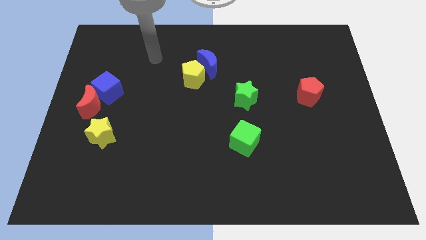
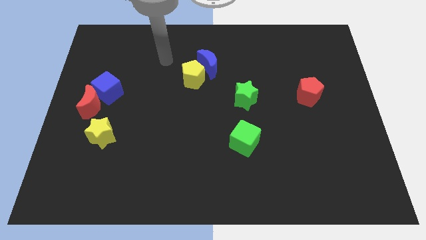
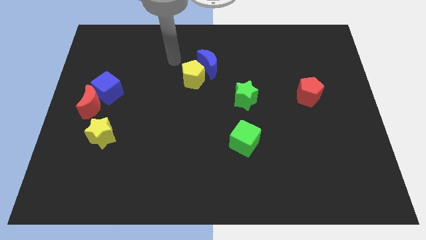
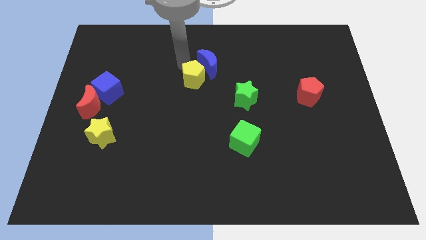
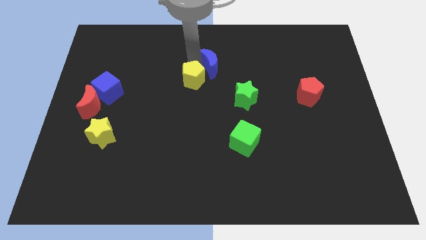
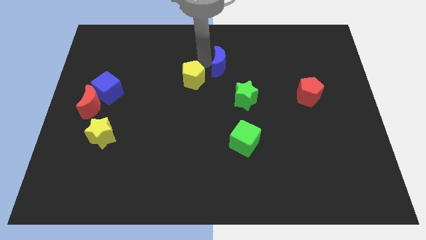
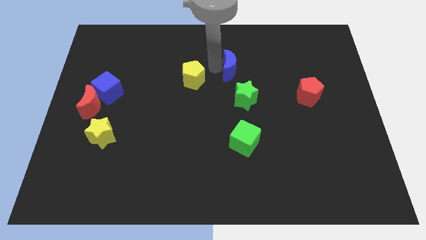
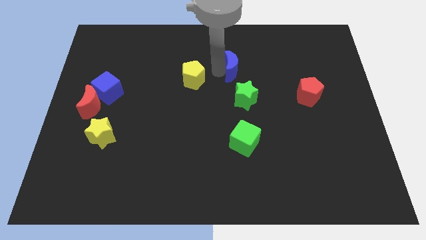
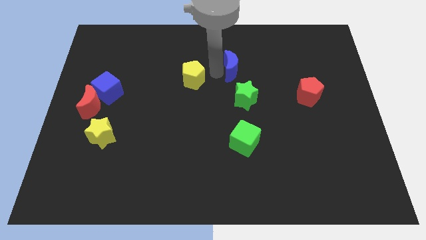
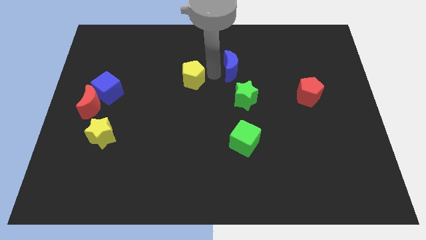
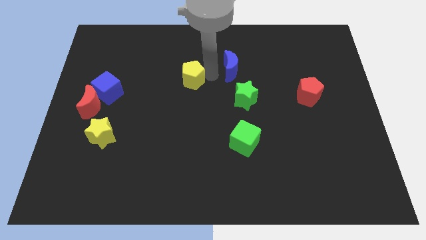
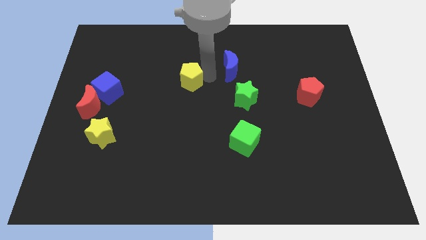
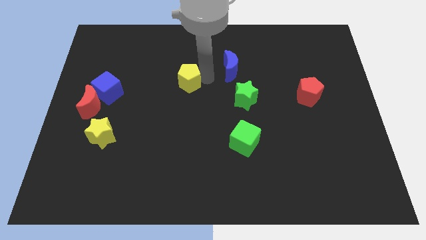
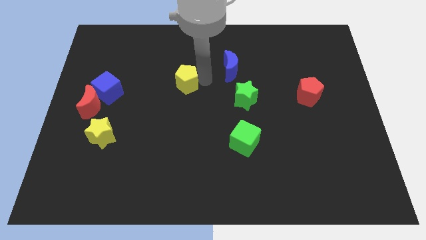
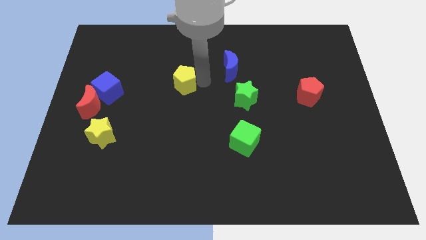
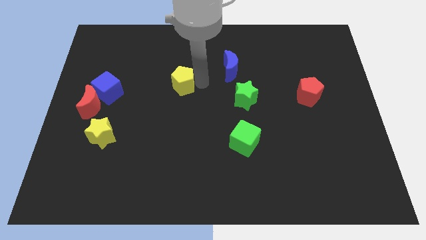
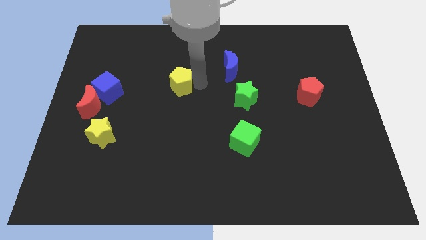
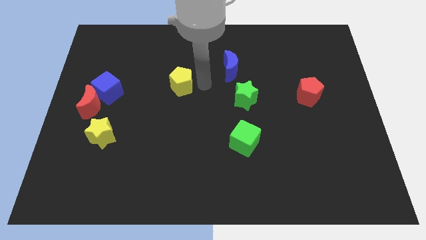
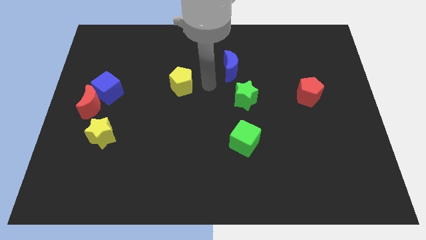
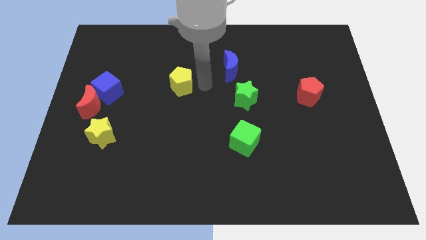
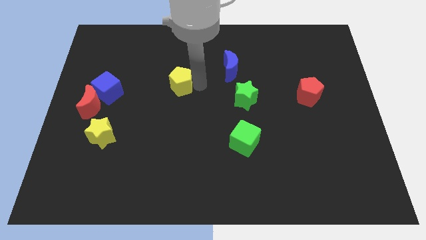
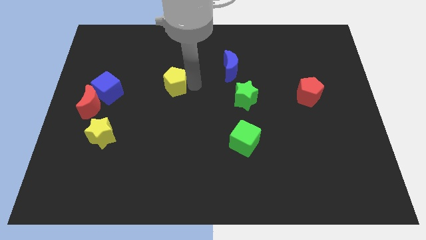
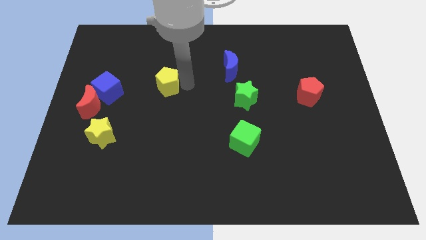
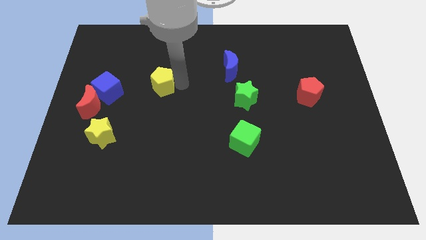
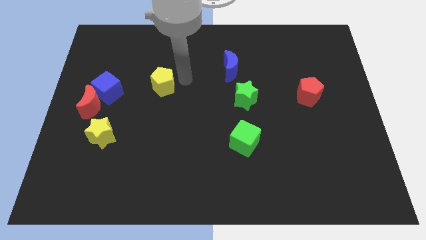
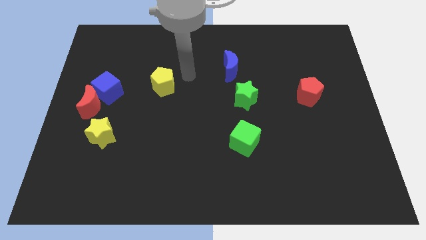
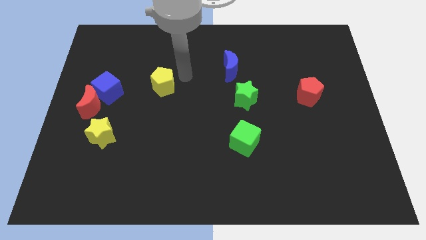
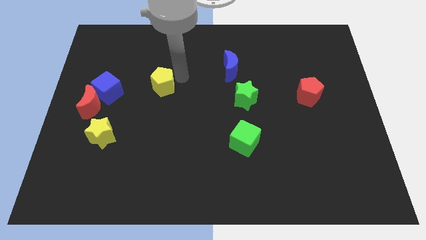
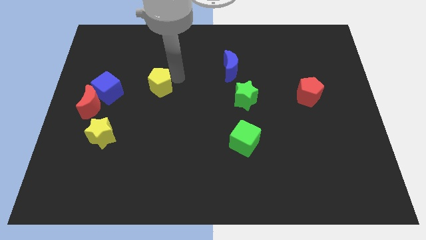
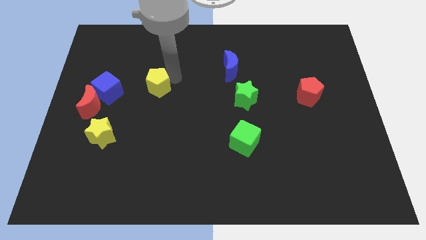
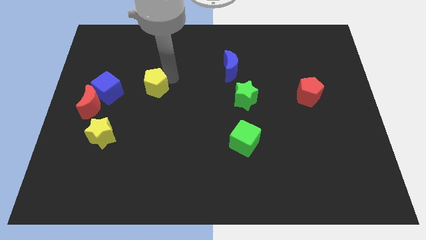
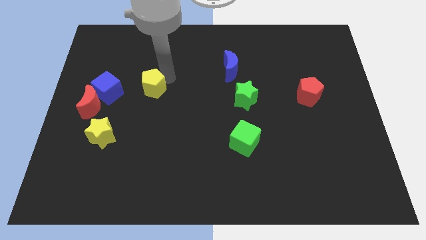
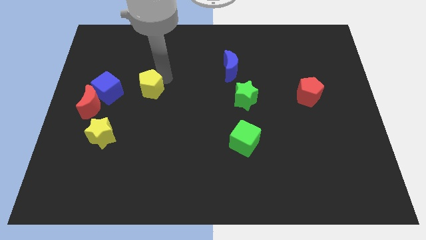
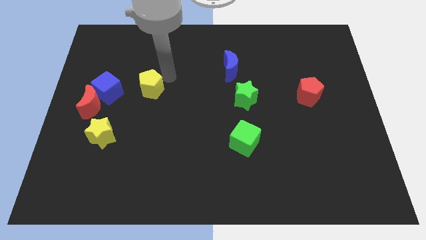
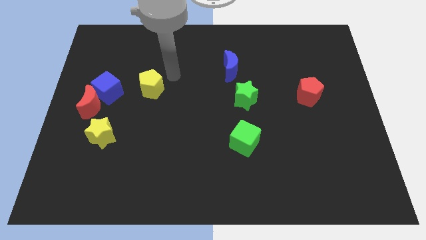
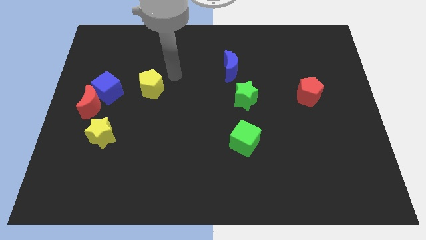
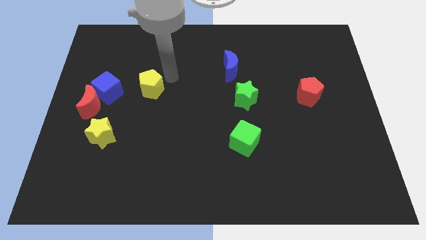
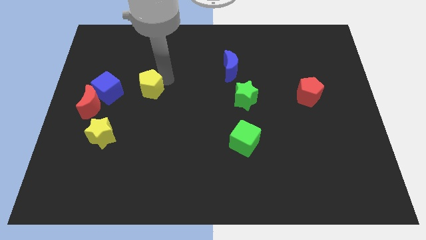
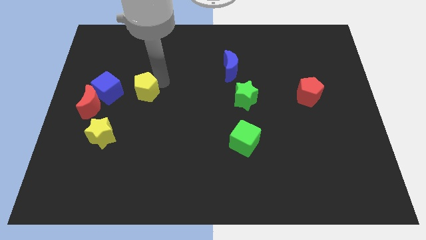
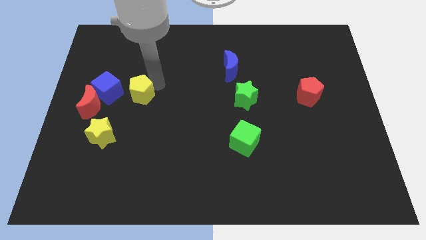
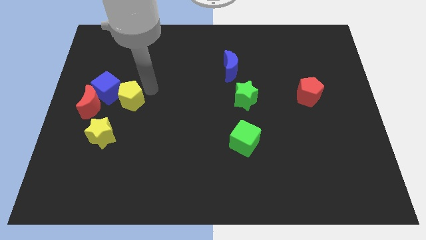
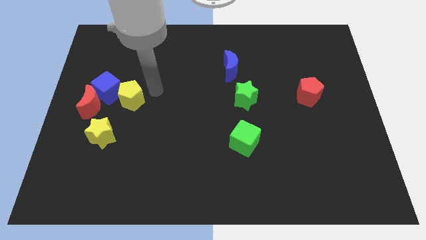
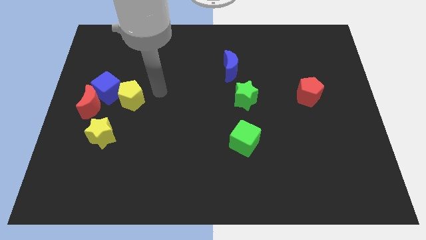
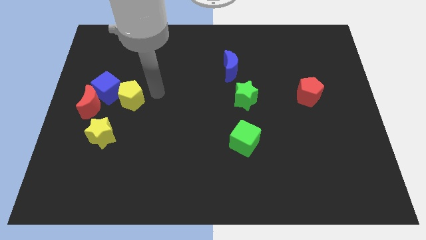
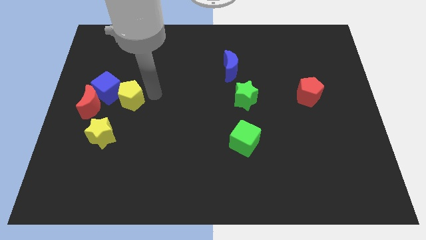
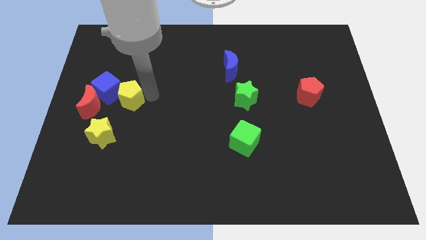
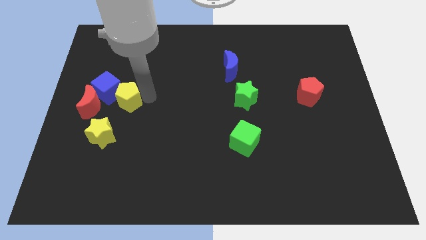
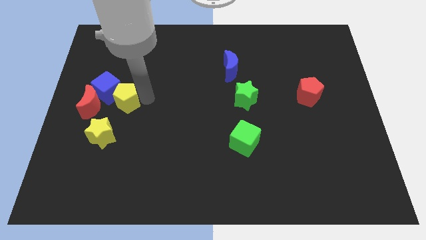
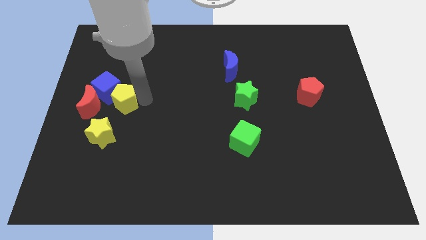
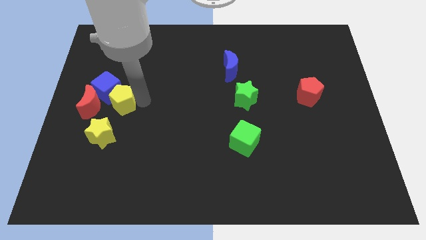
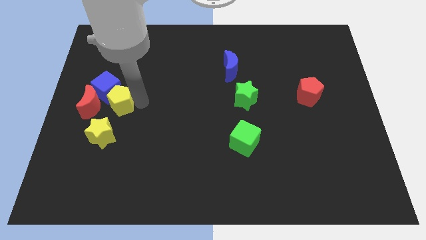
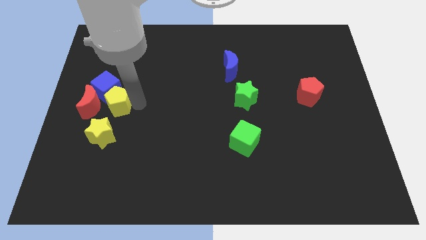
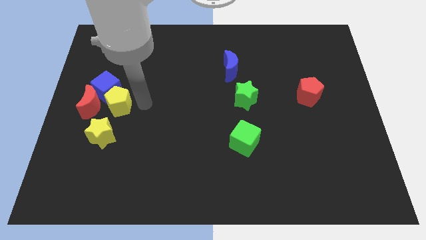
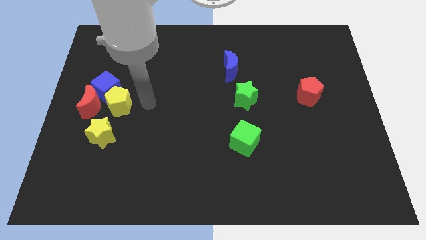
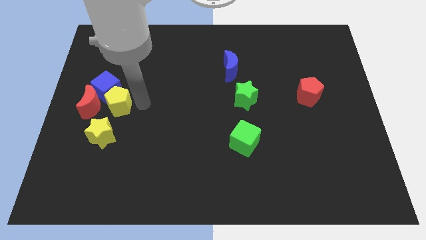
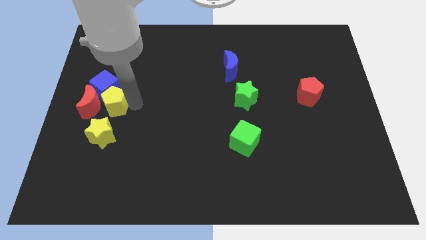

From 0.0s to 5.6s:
slide the yellow pentagon next to the red moon

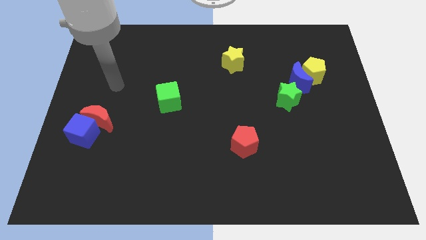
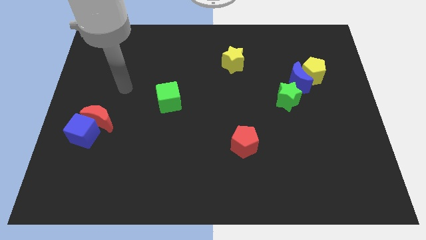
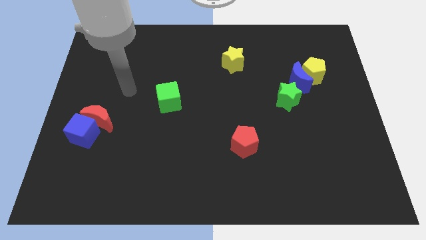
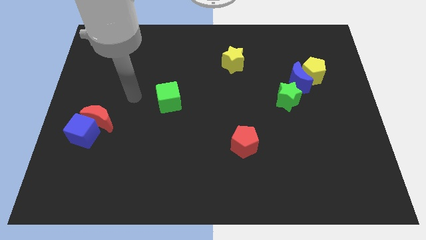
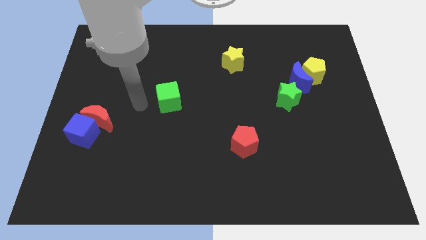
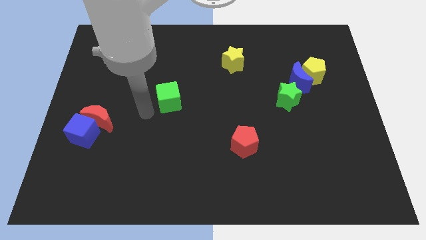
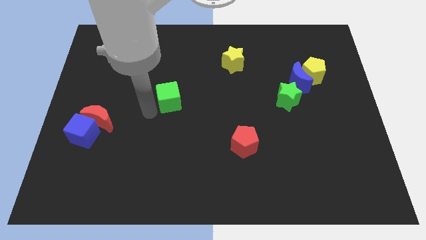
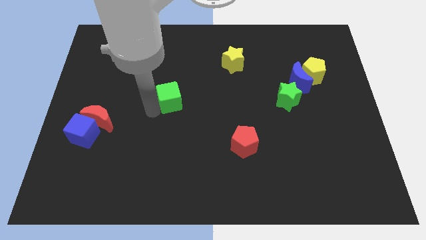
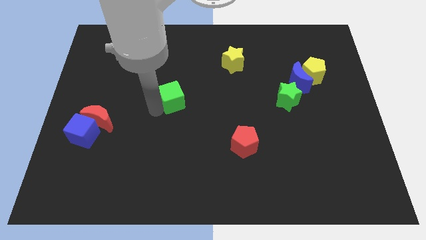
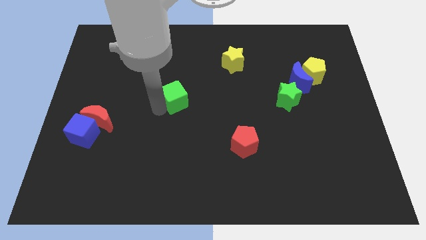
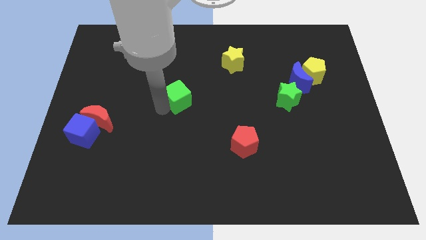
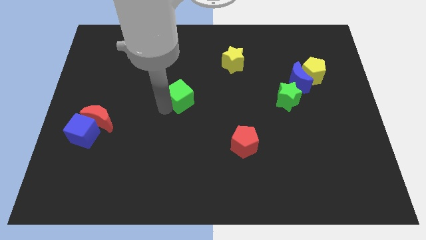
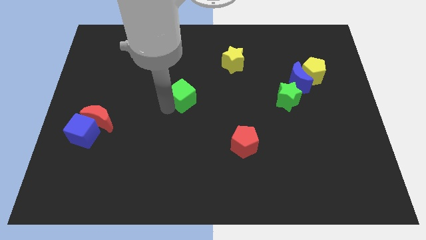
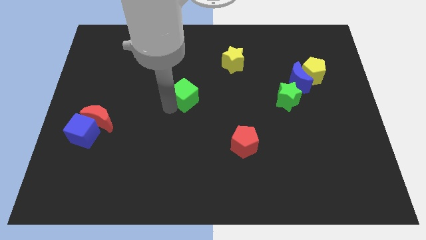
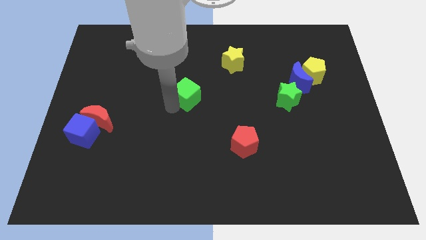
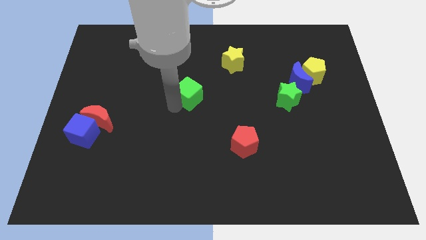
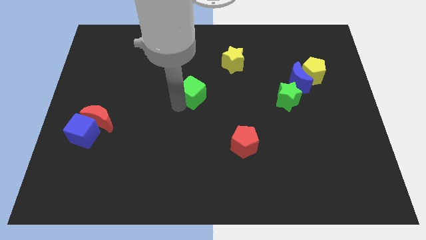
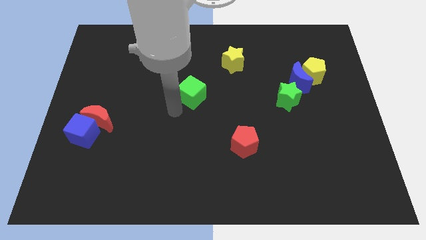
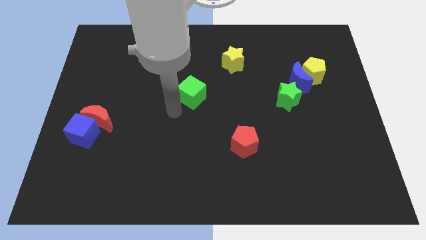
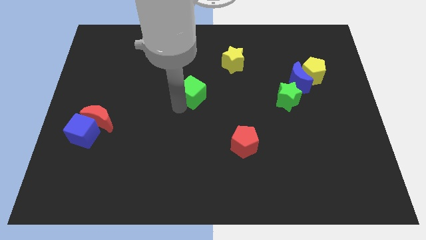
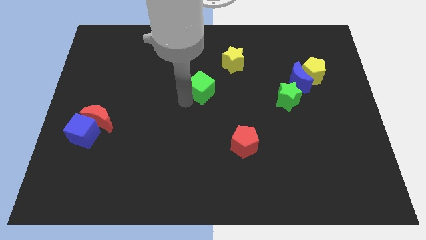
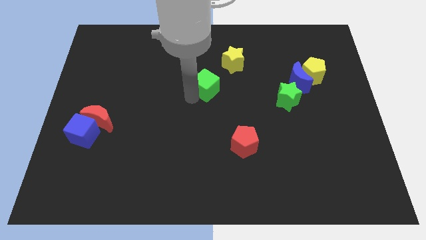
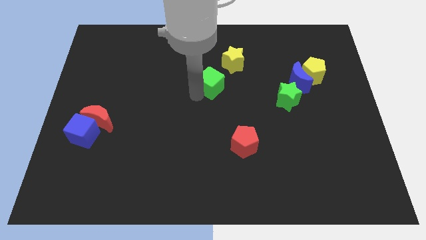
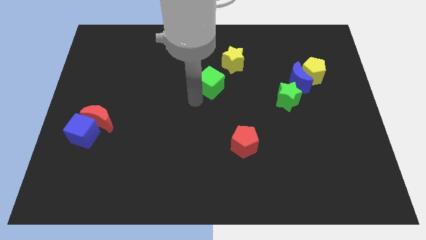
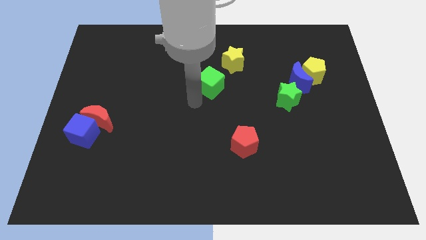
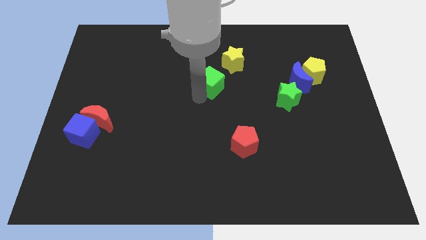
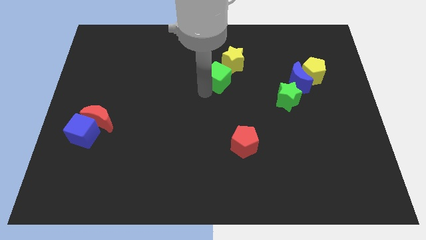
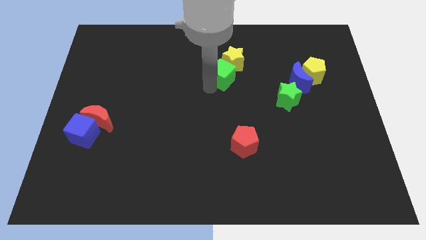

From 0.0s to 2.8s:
put the green cube close to the yellow star
